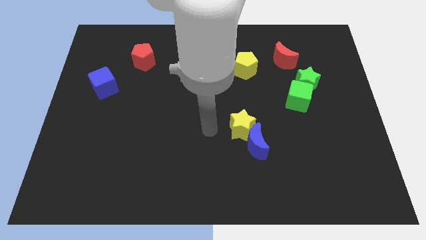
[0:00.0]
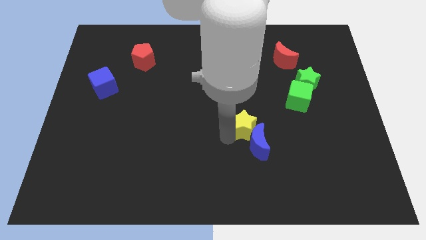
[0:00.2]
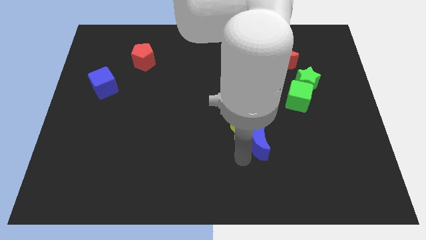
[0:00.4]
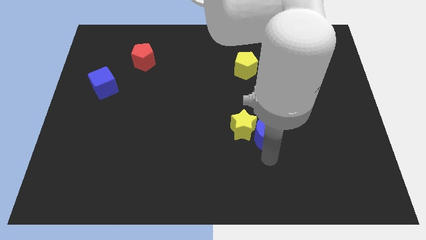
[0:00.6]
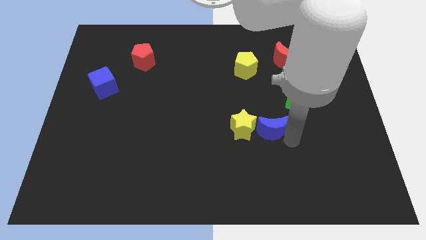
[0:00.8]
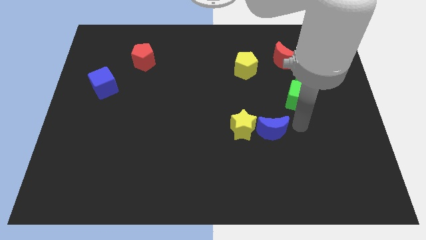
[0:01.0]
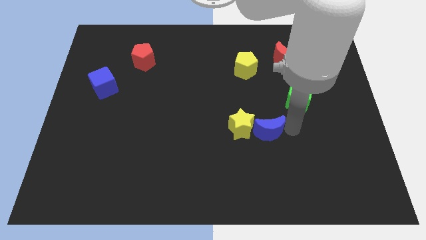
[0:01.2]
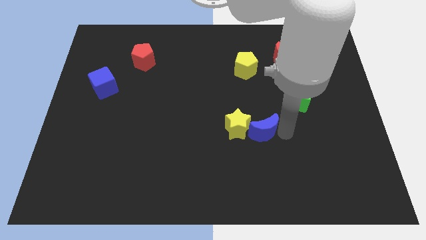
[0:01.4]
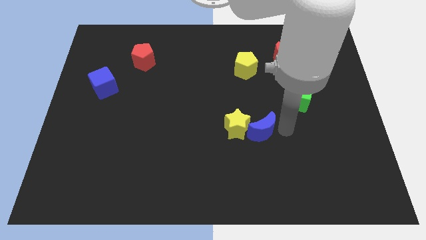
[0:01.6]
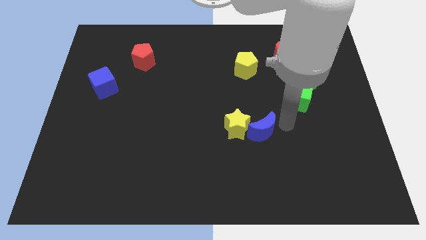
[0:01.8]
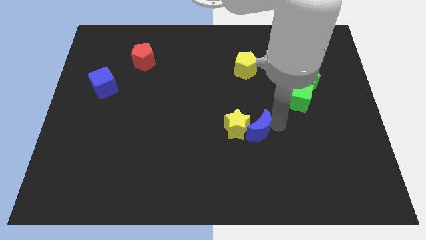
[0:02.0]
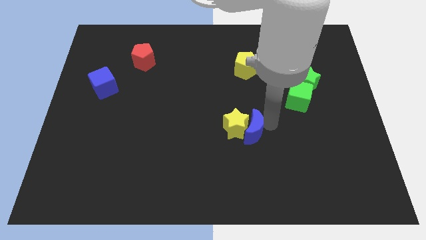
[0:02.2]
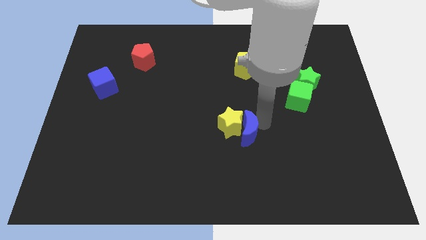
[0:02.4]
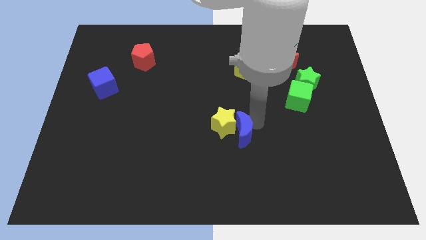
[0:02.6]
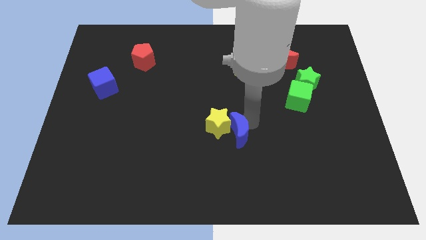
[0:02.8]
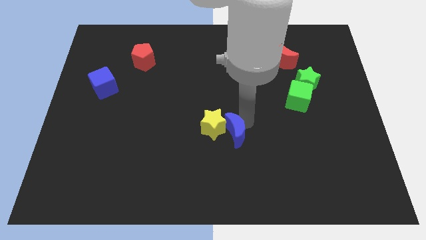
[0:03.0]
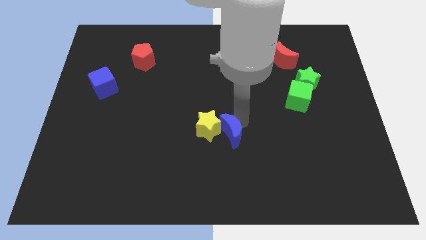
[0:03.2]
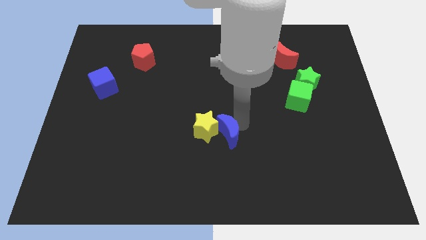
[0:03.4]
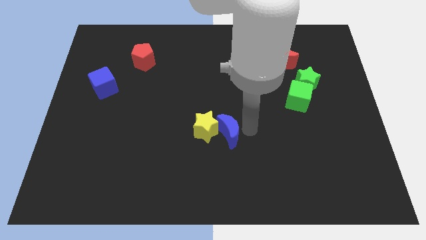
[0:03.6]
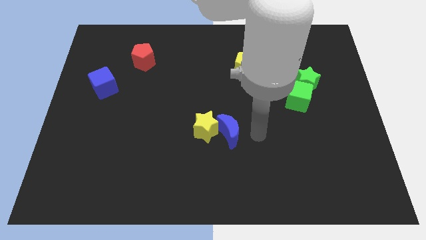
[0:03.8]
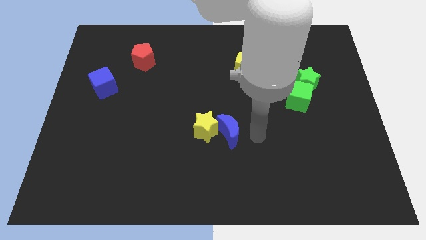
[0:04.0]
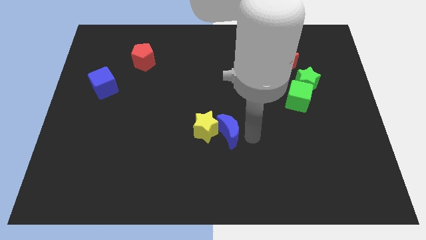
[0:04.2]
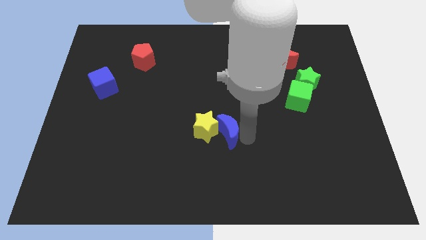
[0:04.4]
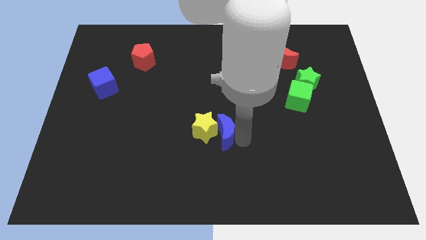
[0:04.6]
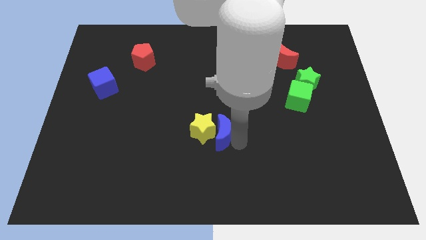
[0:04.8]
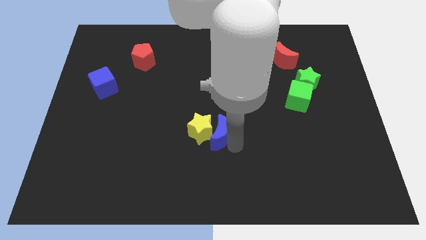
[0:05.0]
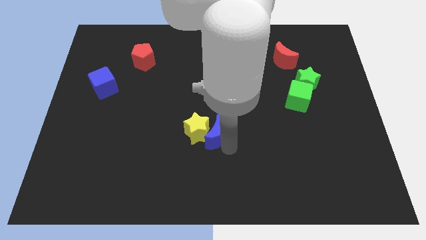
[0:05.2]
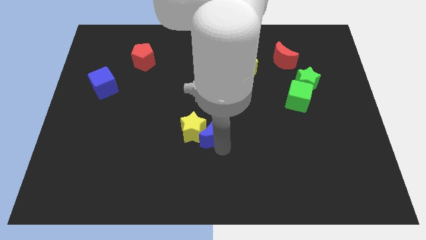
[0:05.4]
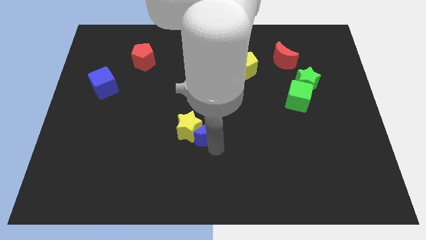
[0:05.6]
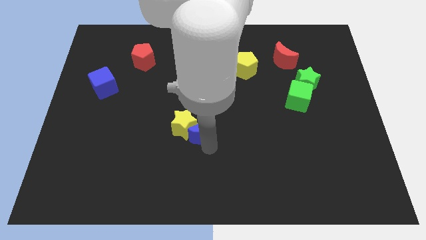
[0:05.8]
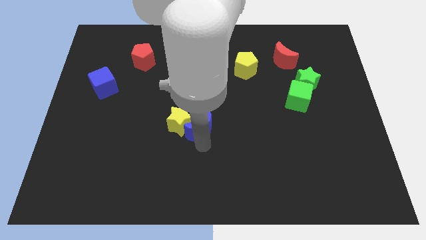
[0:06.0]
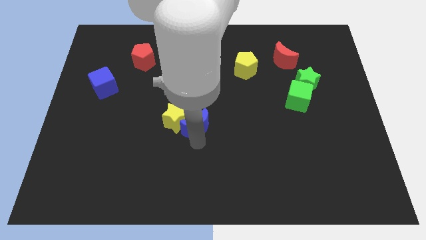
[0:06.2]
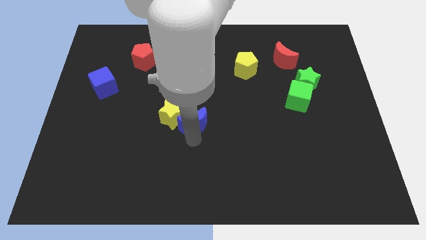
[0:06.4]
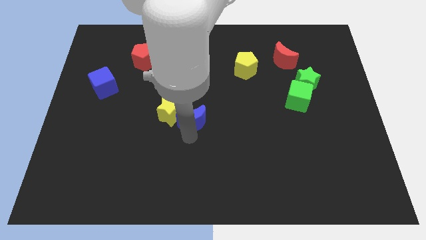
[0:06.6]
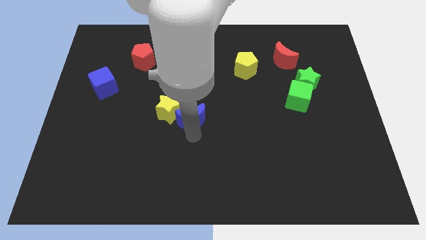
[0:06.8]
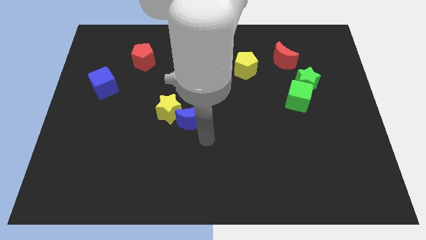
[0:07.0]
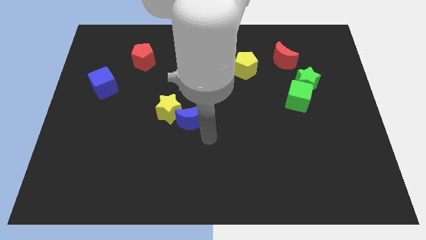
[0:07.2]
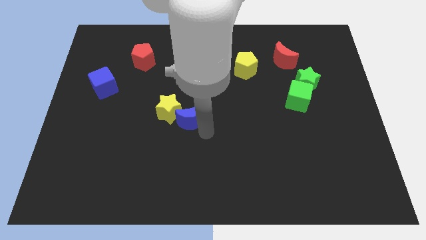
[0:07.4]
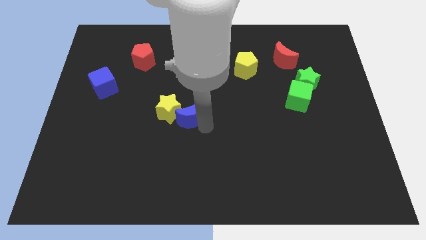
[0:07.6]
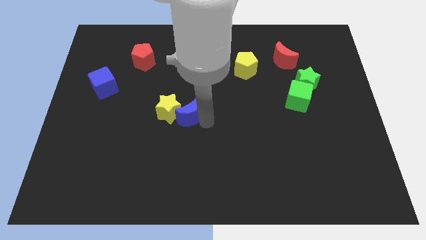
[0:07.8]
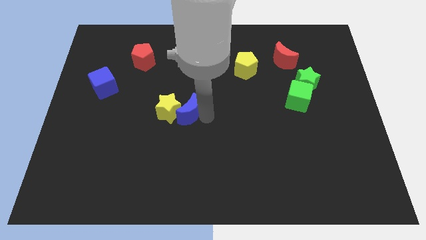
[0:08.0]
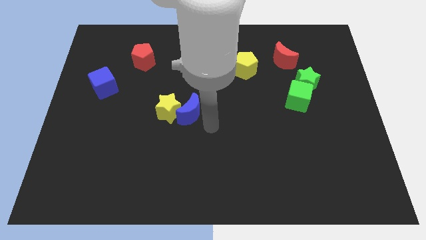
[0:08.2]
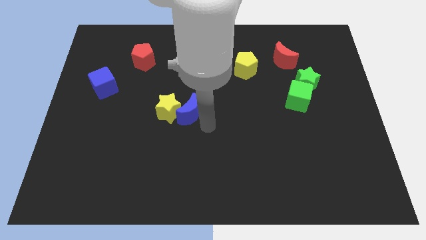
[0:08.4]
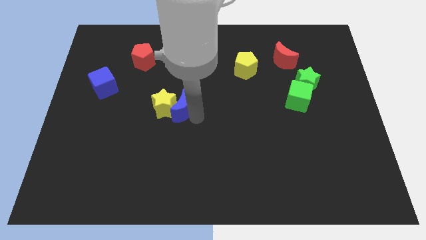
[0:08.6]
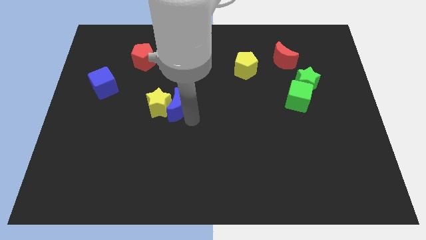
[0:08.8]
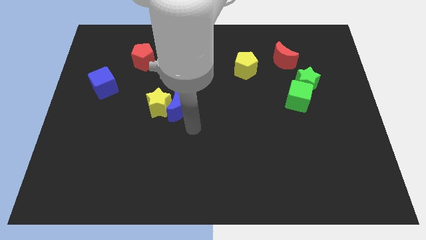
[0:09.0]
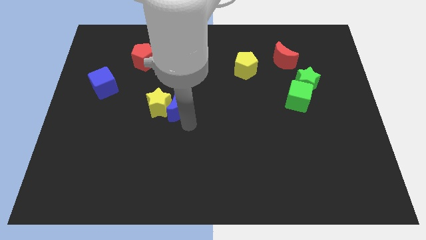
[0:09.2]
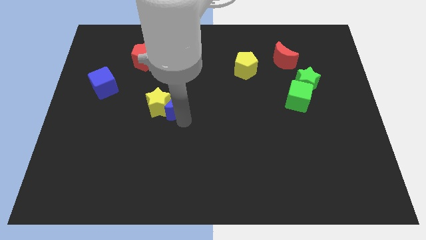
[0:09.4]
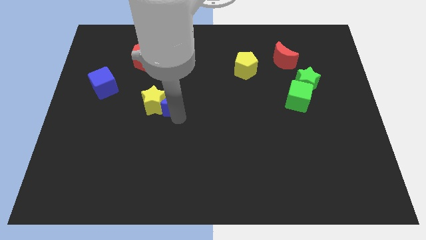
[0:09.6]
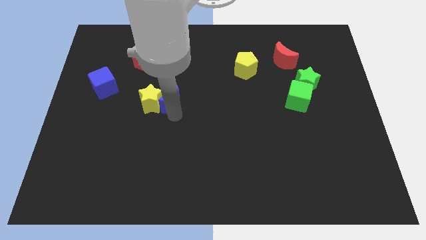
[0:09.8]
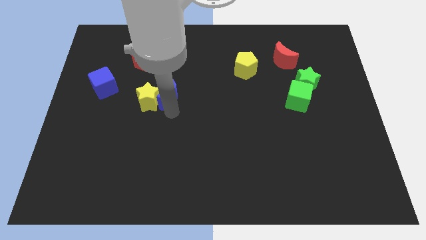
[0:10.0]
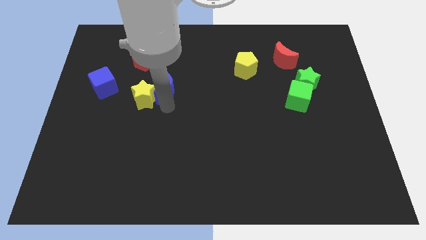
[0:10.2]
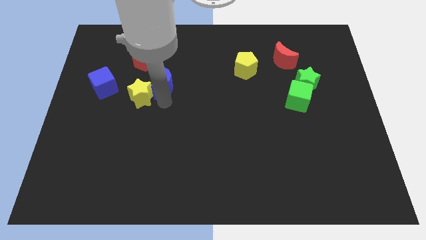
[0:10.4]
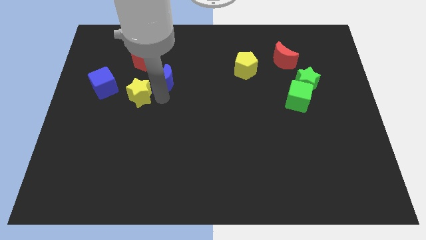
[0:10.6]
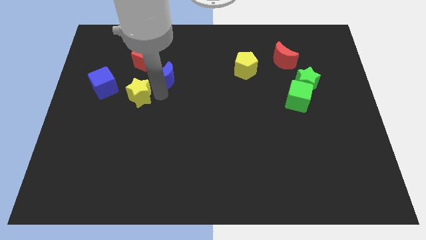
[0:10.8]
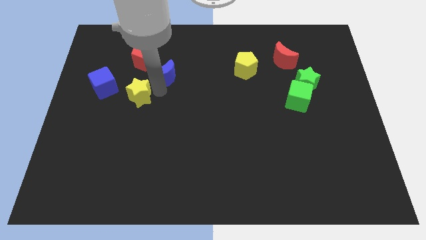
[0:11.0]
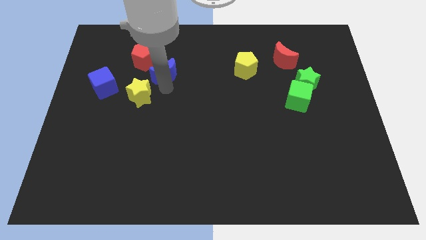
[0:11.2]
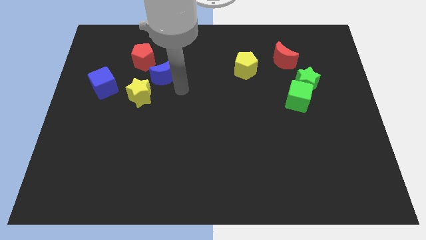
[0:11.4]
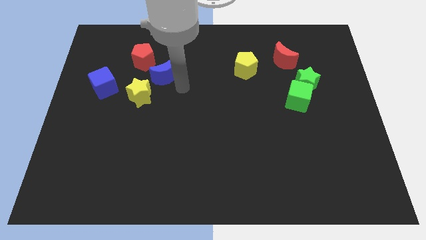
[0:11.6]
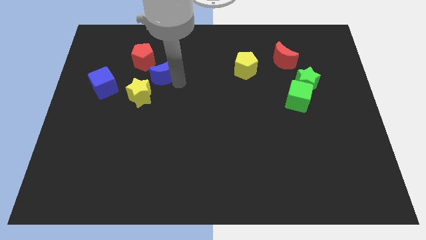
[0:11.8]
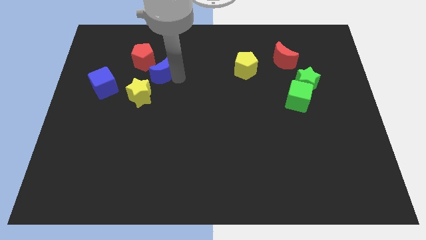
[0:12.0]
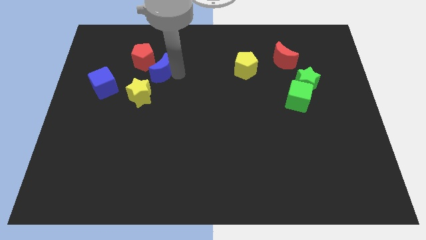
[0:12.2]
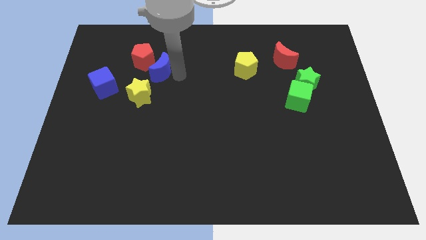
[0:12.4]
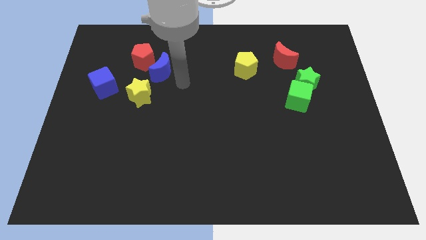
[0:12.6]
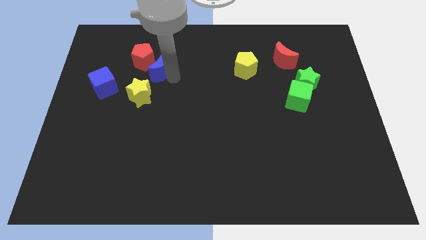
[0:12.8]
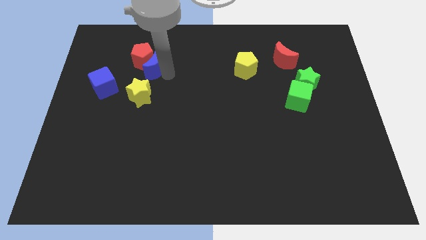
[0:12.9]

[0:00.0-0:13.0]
put the blue moon to the red pentagon

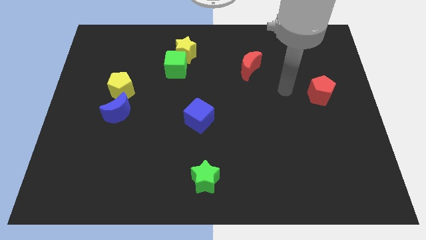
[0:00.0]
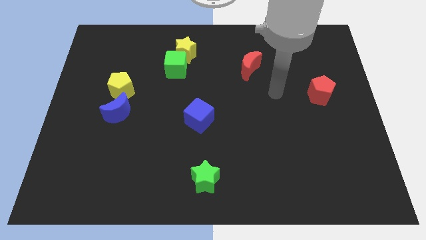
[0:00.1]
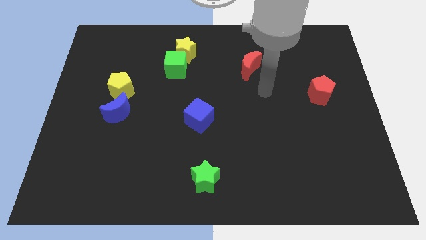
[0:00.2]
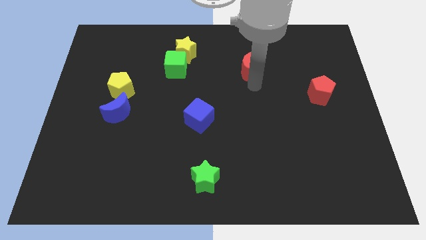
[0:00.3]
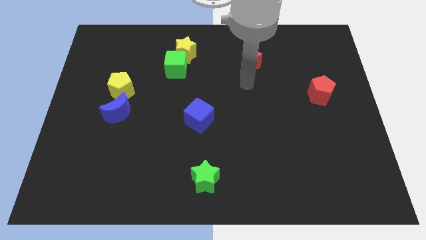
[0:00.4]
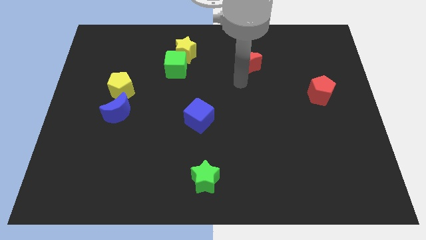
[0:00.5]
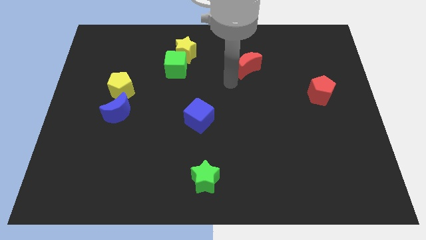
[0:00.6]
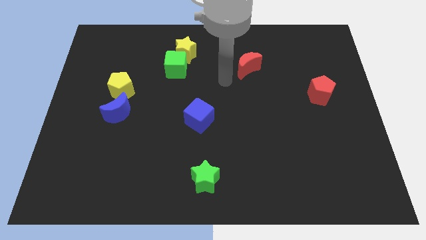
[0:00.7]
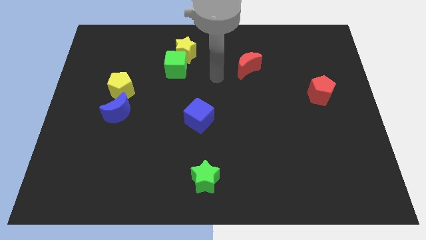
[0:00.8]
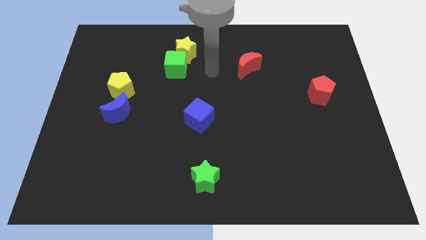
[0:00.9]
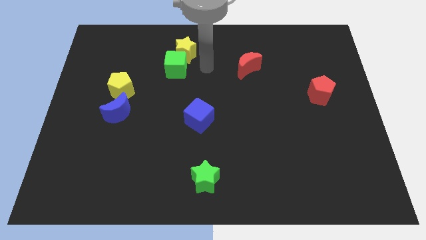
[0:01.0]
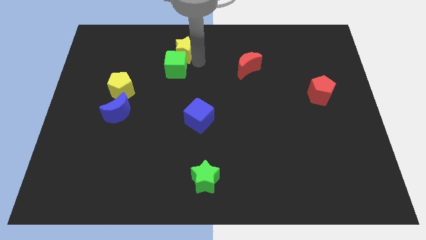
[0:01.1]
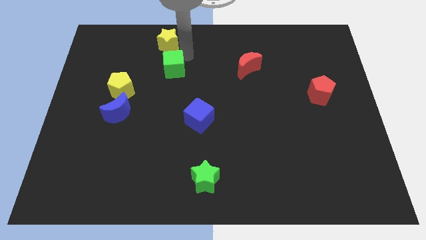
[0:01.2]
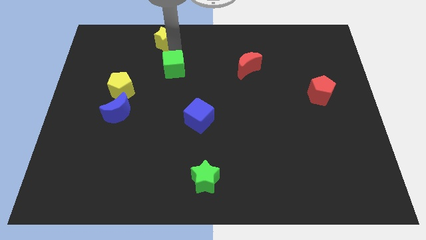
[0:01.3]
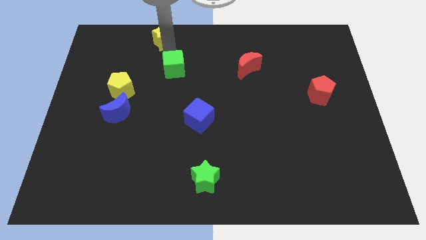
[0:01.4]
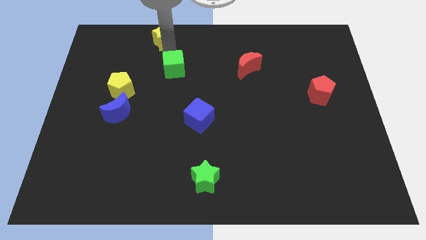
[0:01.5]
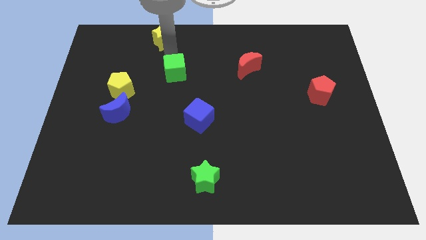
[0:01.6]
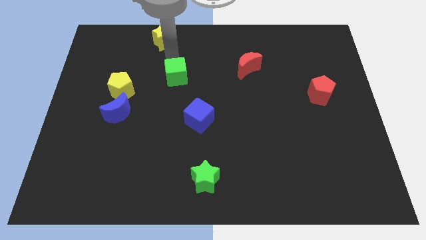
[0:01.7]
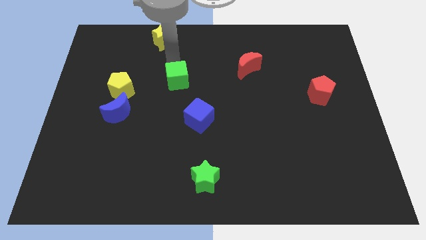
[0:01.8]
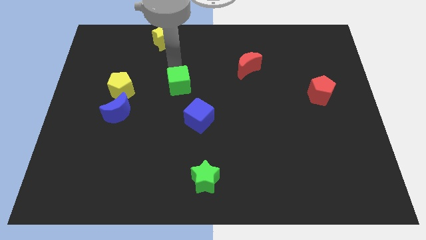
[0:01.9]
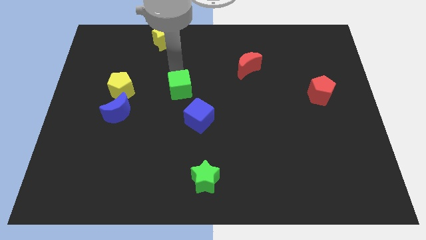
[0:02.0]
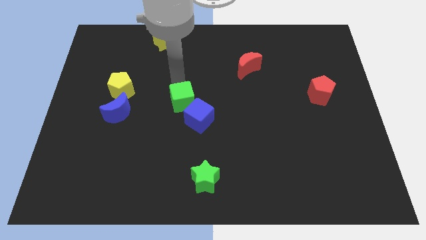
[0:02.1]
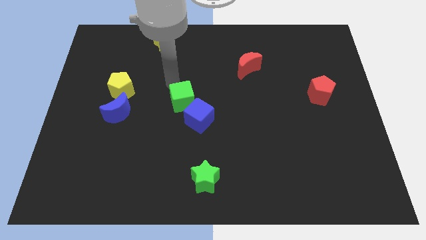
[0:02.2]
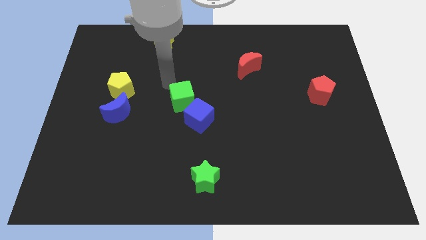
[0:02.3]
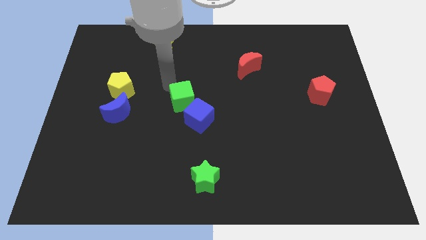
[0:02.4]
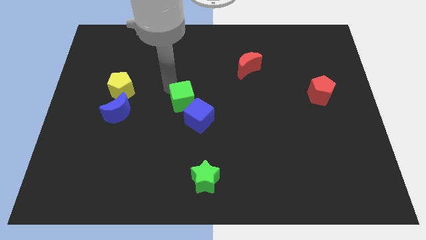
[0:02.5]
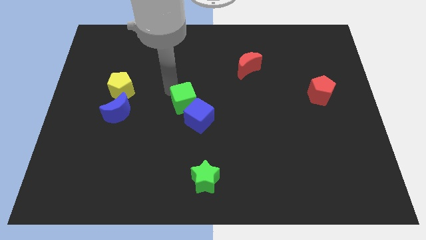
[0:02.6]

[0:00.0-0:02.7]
move the green cube close to the blue cube
